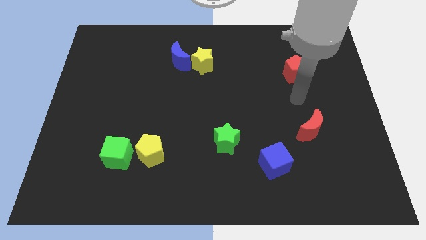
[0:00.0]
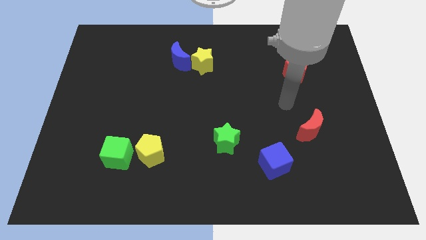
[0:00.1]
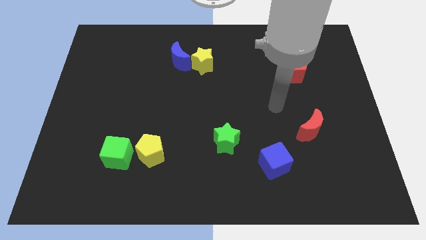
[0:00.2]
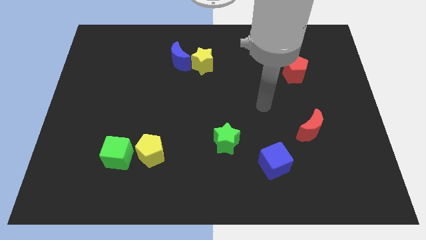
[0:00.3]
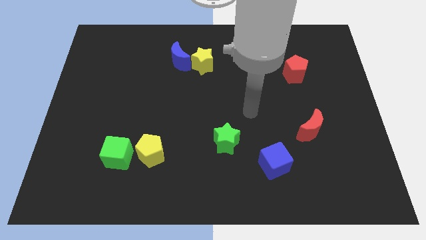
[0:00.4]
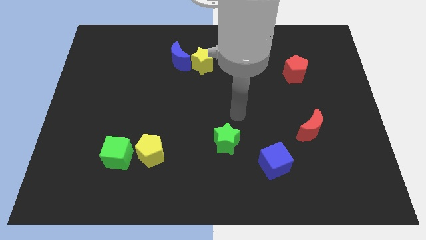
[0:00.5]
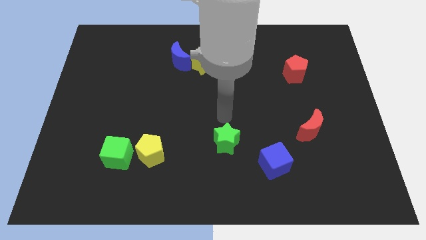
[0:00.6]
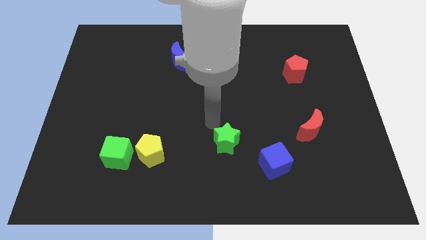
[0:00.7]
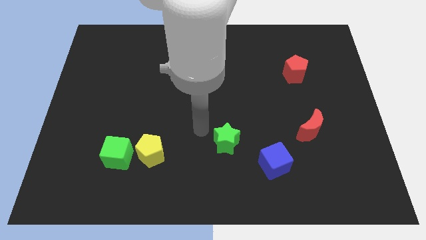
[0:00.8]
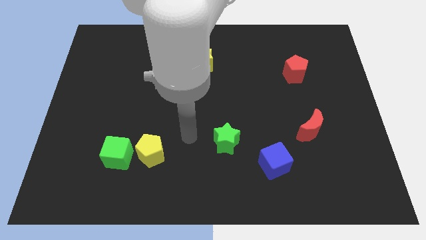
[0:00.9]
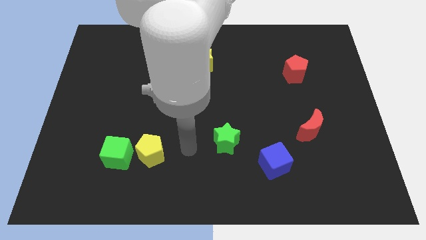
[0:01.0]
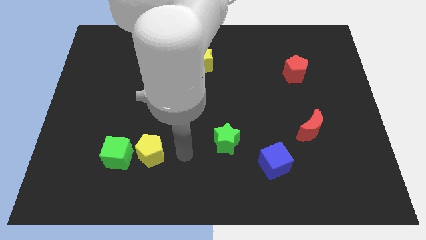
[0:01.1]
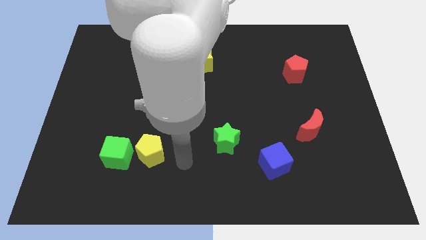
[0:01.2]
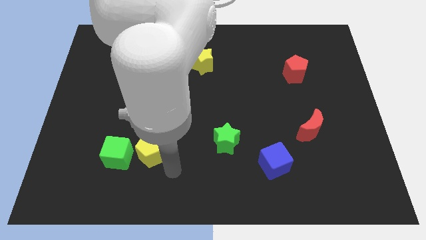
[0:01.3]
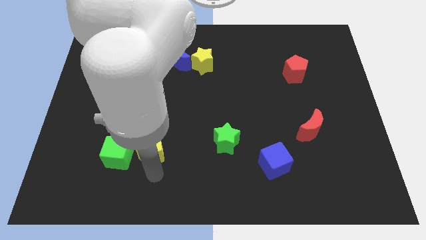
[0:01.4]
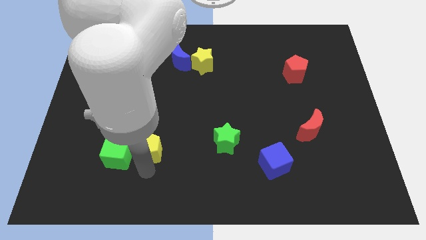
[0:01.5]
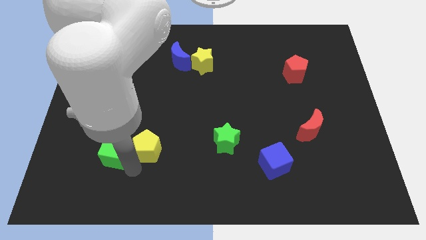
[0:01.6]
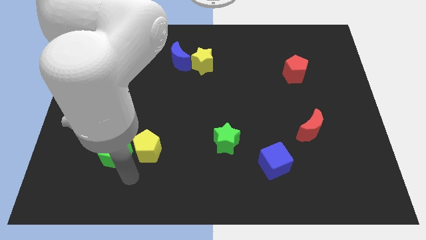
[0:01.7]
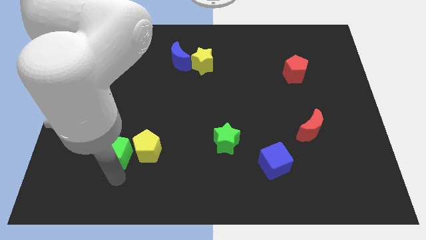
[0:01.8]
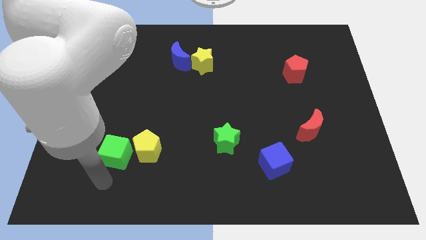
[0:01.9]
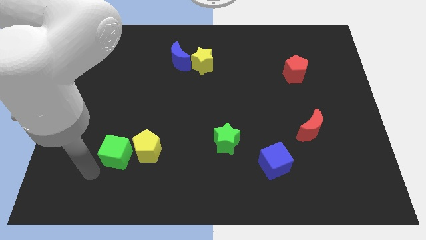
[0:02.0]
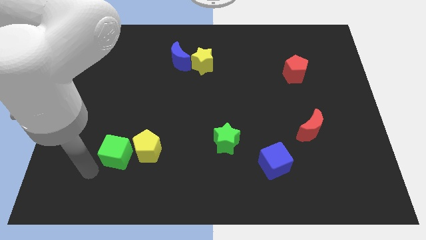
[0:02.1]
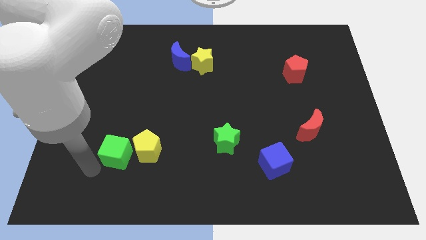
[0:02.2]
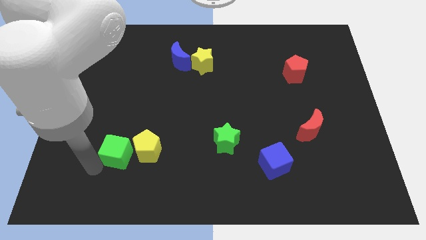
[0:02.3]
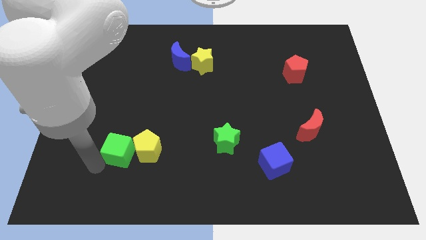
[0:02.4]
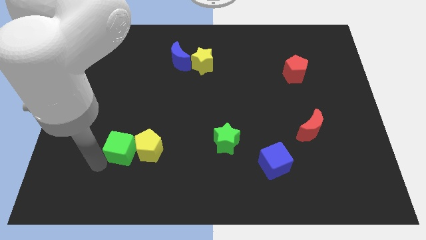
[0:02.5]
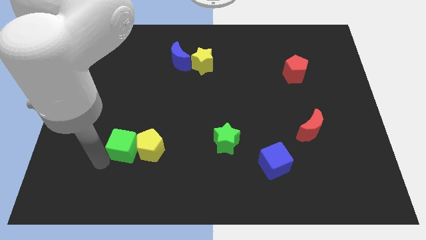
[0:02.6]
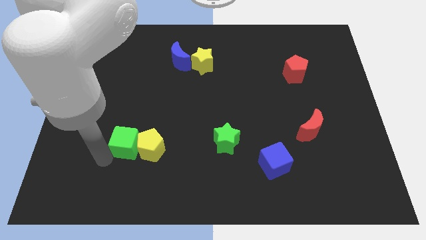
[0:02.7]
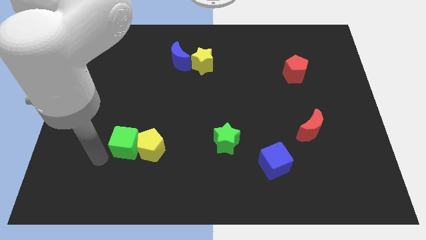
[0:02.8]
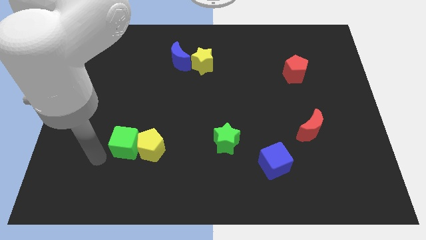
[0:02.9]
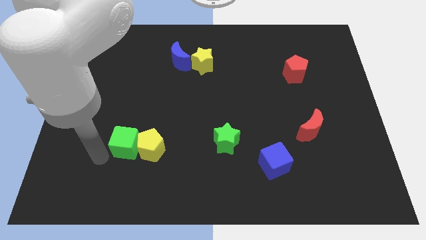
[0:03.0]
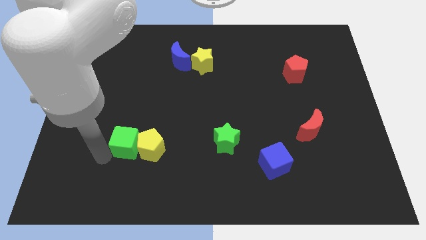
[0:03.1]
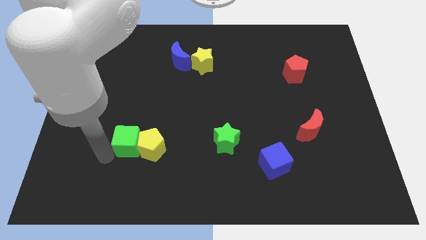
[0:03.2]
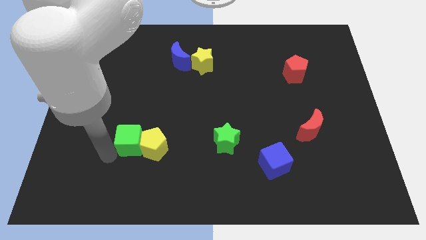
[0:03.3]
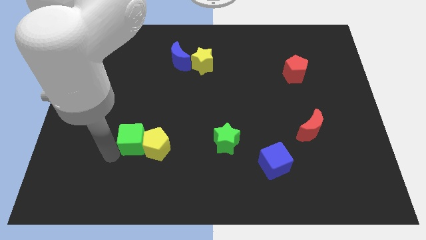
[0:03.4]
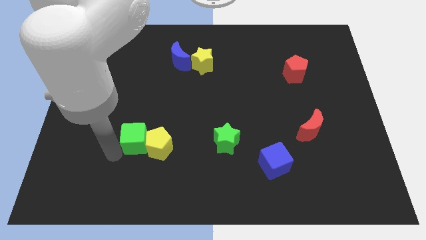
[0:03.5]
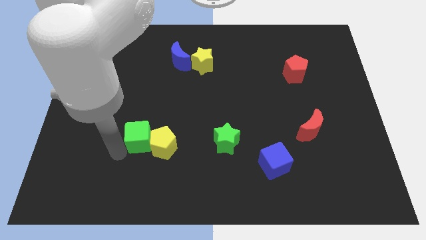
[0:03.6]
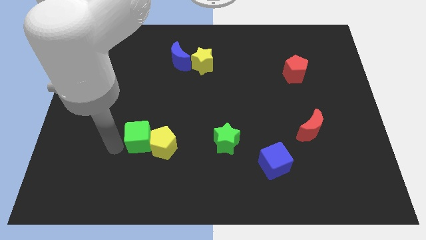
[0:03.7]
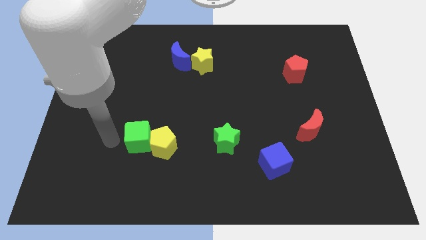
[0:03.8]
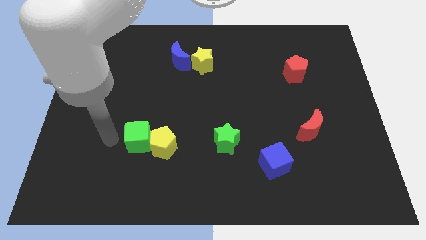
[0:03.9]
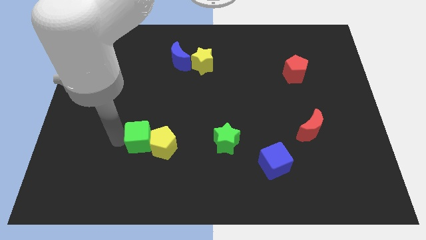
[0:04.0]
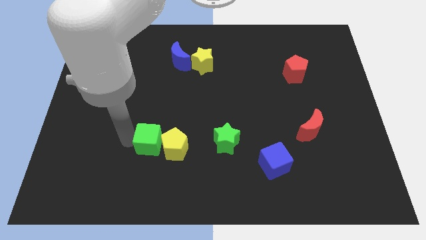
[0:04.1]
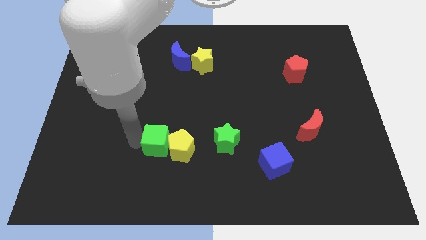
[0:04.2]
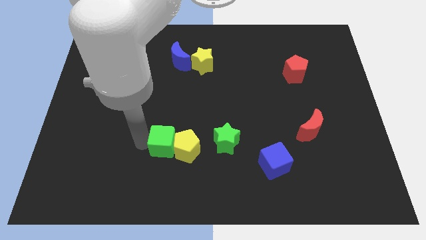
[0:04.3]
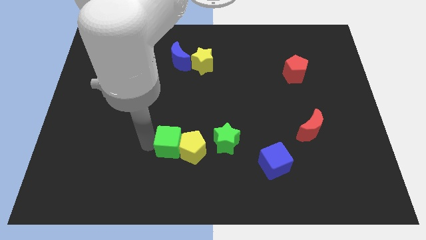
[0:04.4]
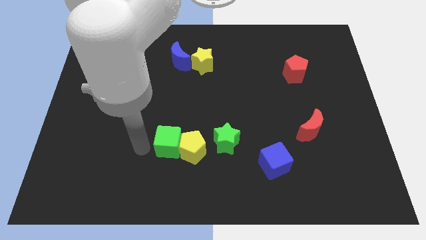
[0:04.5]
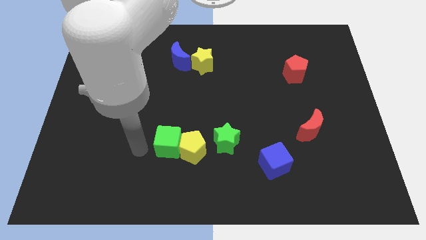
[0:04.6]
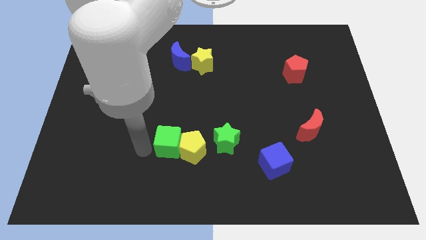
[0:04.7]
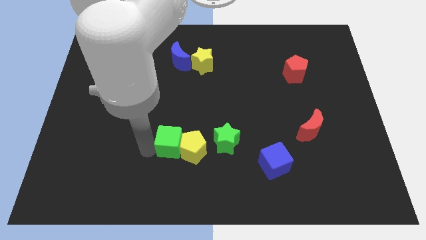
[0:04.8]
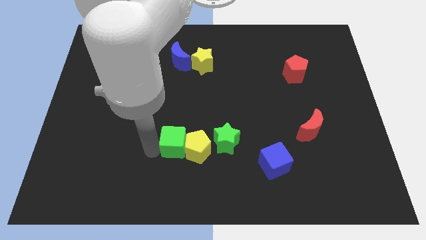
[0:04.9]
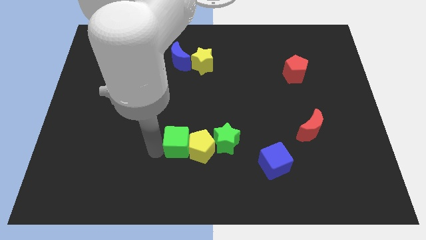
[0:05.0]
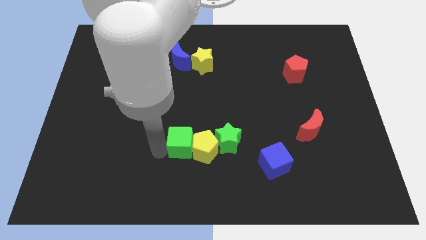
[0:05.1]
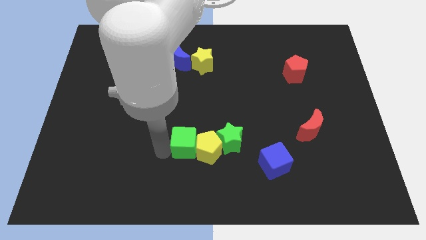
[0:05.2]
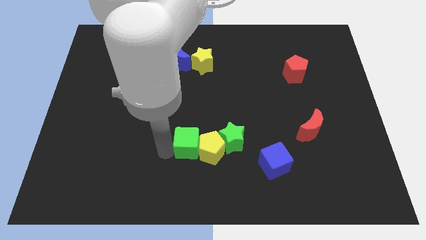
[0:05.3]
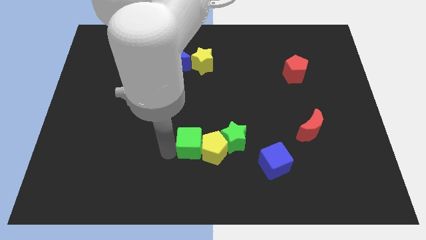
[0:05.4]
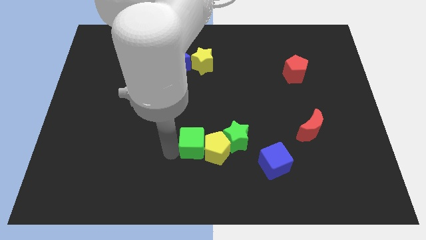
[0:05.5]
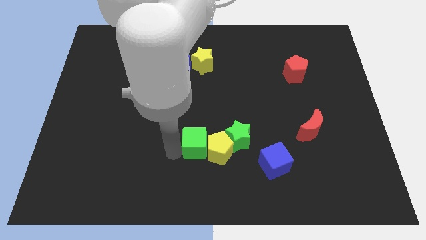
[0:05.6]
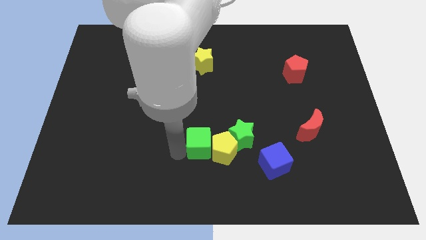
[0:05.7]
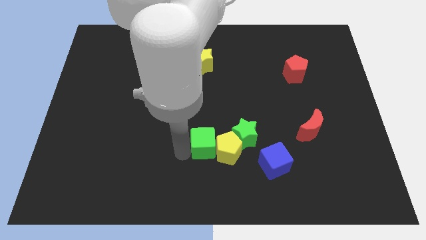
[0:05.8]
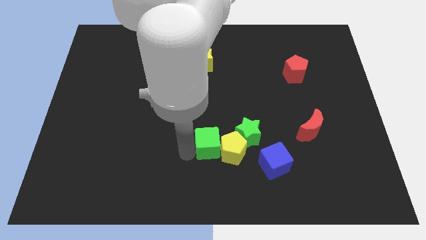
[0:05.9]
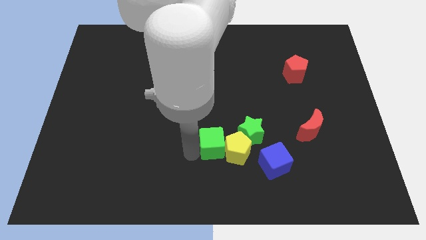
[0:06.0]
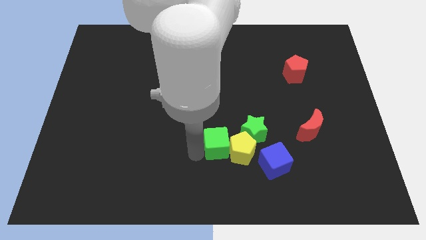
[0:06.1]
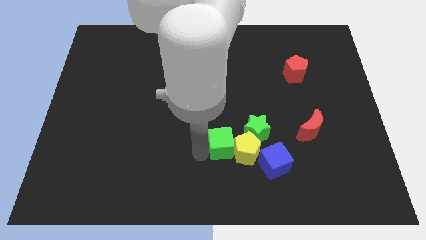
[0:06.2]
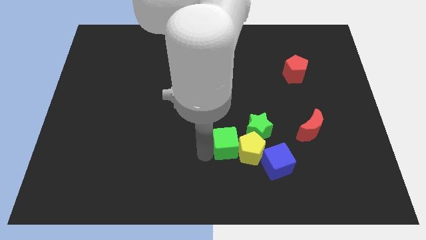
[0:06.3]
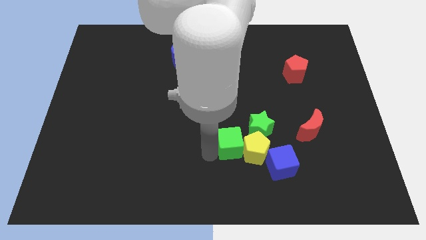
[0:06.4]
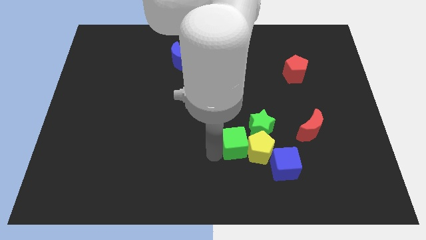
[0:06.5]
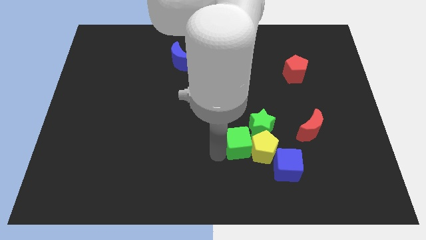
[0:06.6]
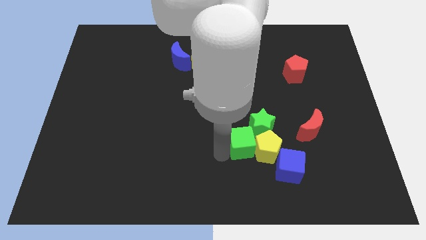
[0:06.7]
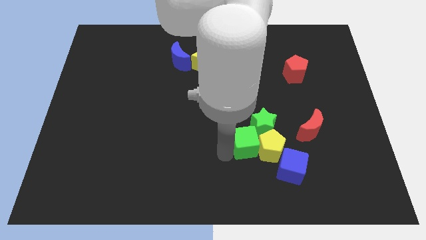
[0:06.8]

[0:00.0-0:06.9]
push the green cube towards the green star

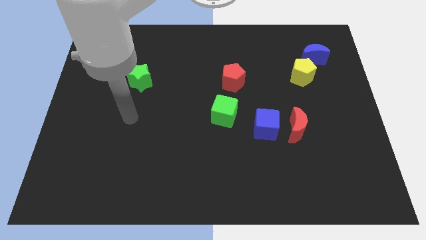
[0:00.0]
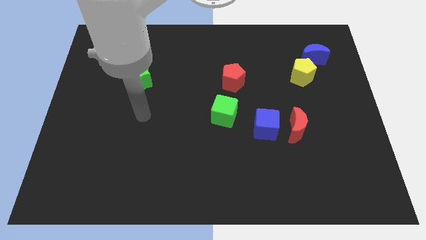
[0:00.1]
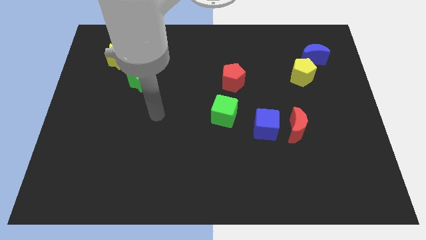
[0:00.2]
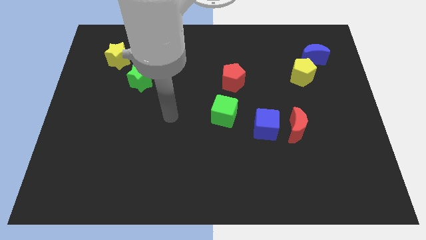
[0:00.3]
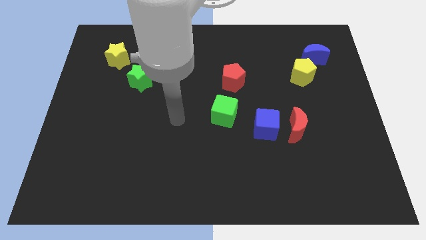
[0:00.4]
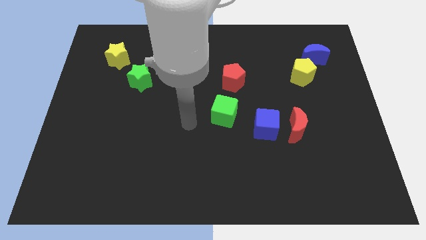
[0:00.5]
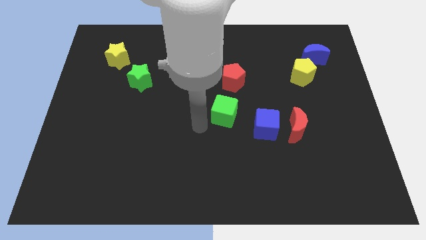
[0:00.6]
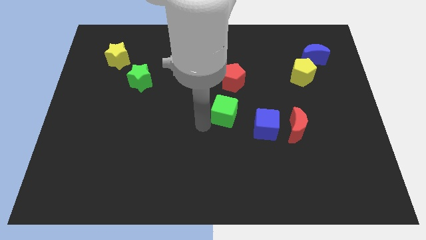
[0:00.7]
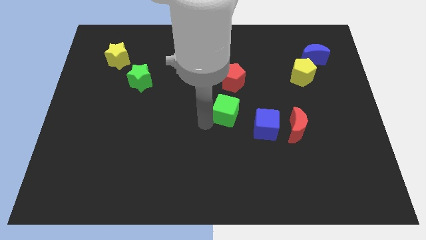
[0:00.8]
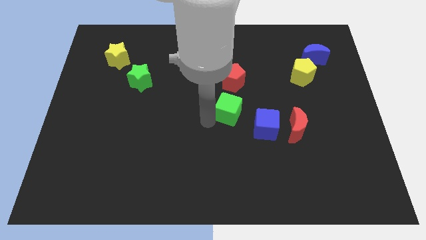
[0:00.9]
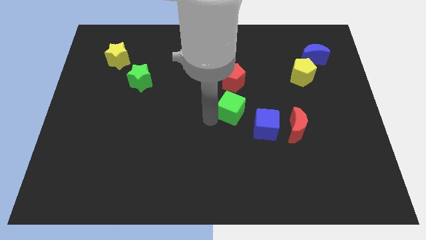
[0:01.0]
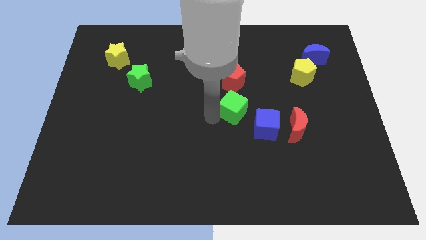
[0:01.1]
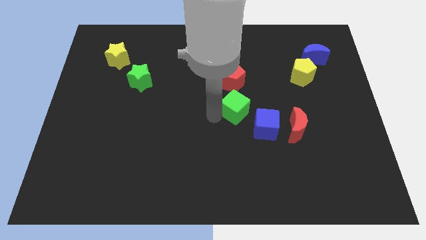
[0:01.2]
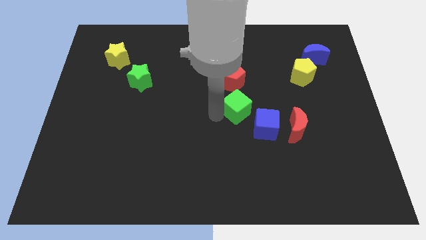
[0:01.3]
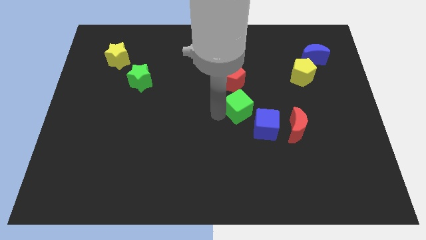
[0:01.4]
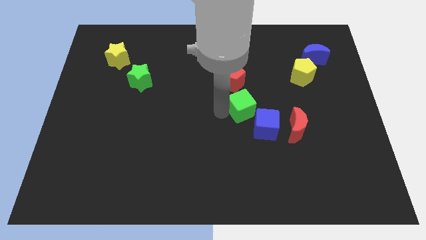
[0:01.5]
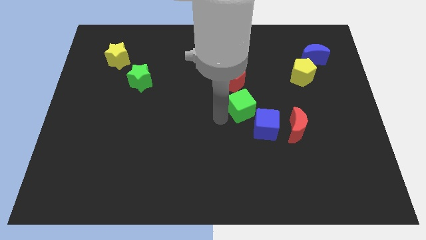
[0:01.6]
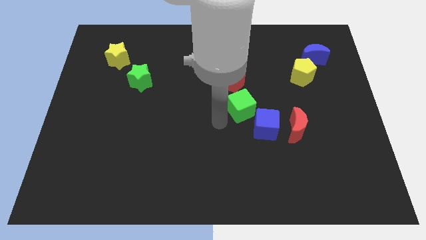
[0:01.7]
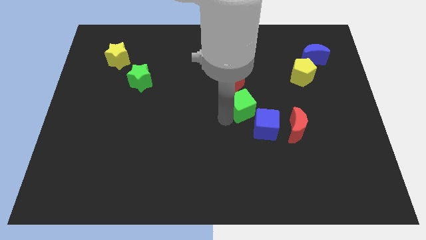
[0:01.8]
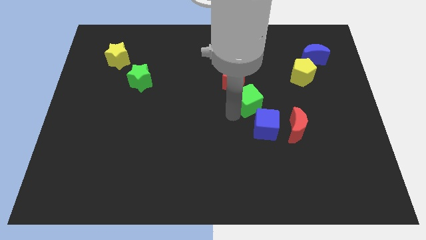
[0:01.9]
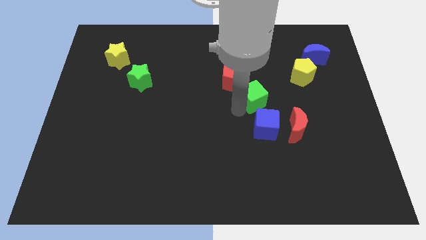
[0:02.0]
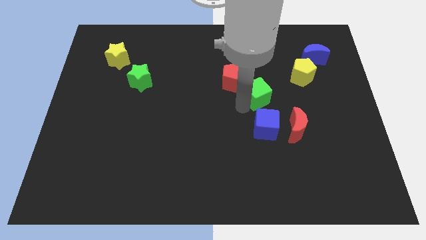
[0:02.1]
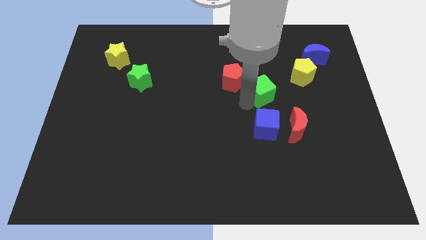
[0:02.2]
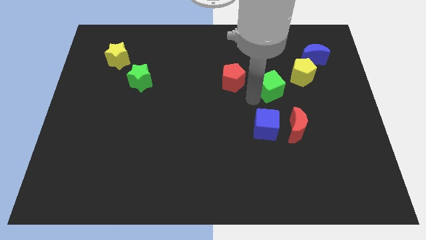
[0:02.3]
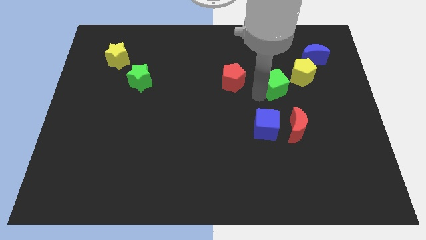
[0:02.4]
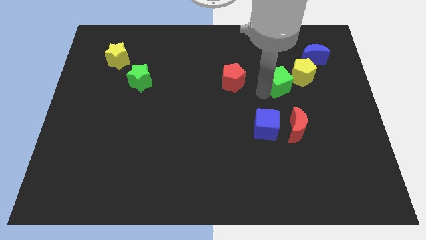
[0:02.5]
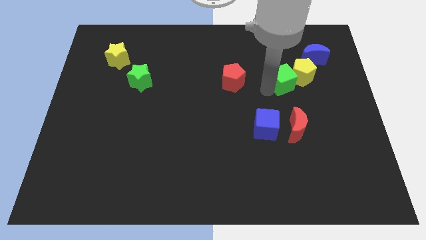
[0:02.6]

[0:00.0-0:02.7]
move the green cube close to the yellow pentagon
